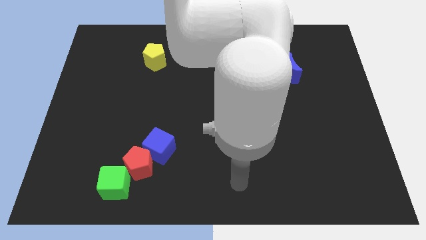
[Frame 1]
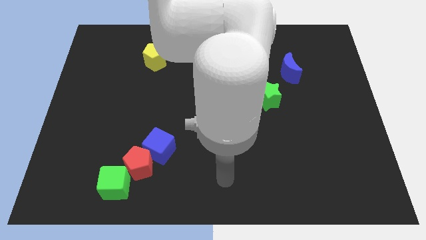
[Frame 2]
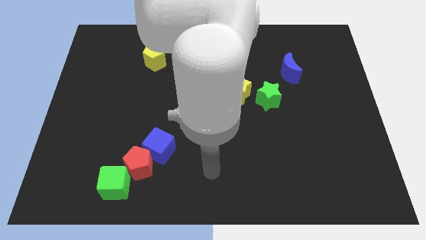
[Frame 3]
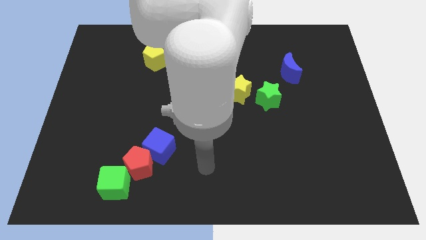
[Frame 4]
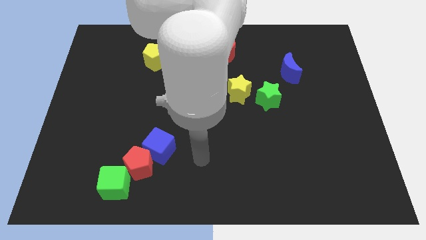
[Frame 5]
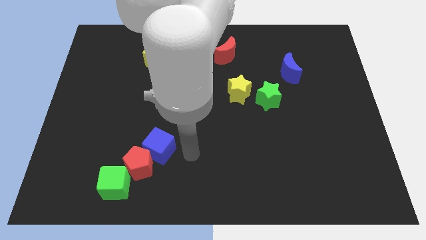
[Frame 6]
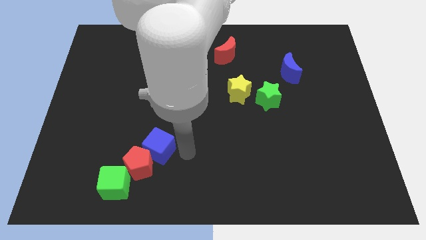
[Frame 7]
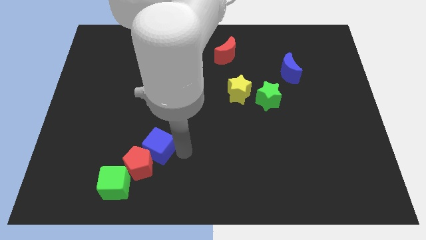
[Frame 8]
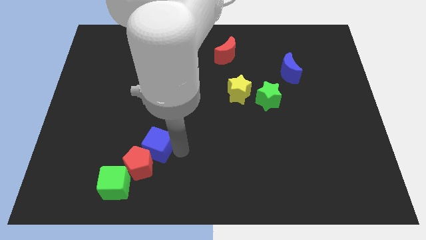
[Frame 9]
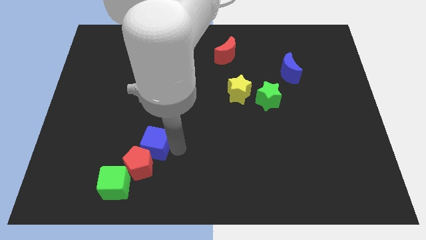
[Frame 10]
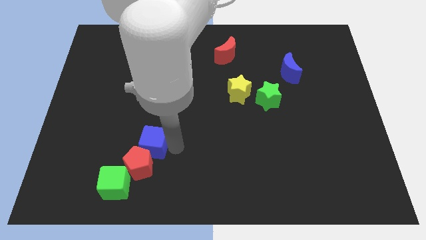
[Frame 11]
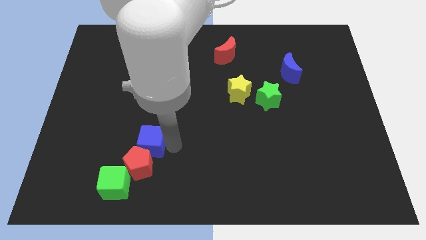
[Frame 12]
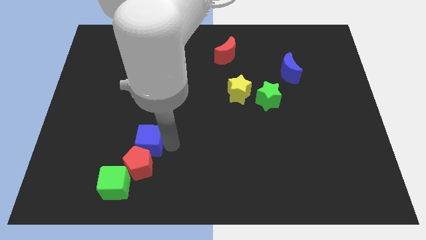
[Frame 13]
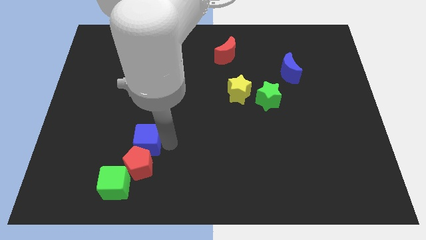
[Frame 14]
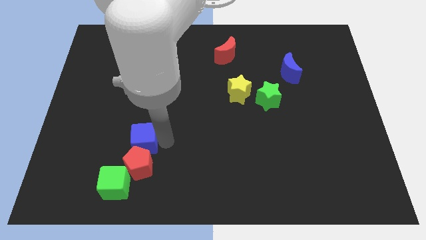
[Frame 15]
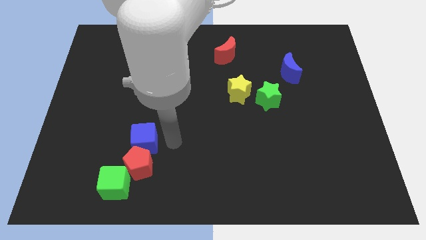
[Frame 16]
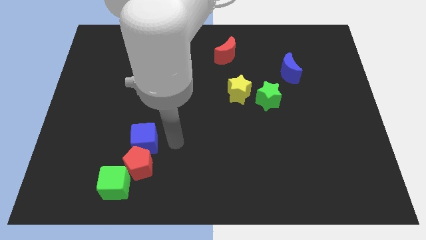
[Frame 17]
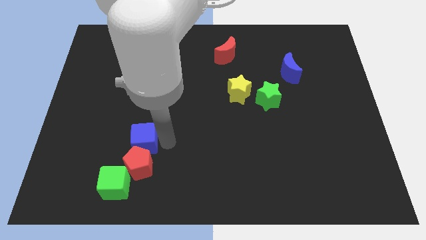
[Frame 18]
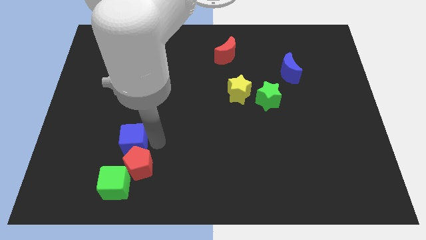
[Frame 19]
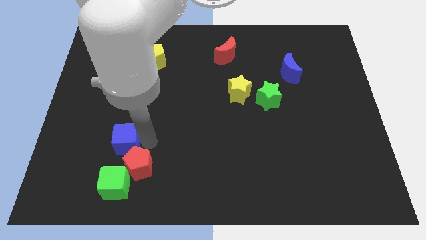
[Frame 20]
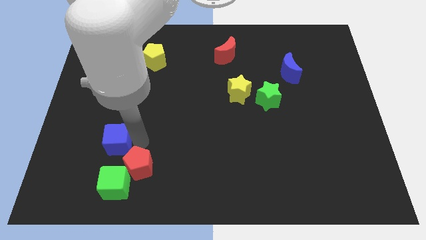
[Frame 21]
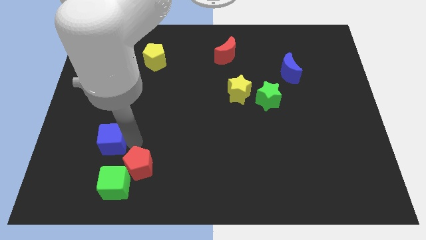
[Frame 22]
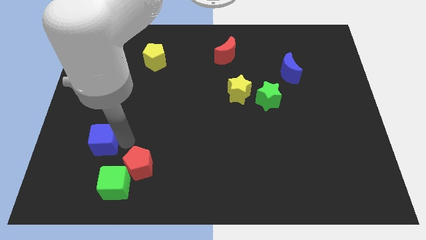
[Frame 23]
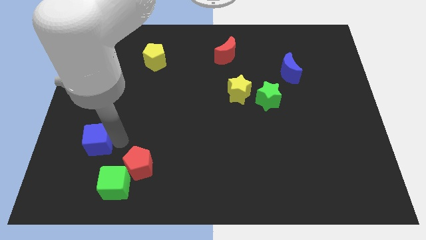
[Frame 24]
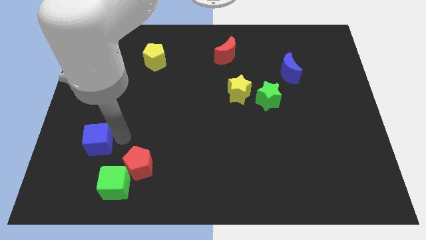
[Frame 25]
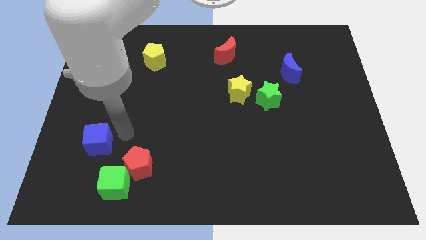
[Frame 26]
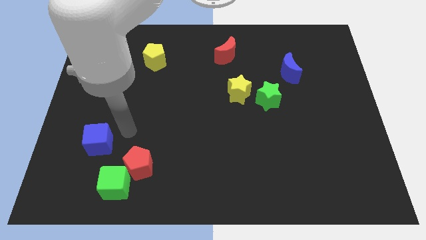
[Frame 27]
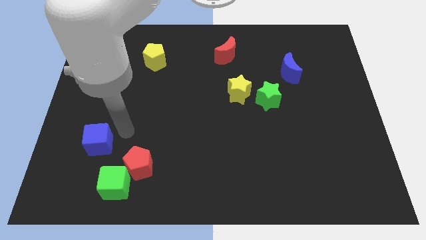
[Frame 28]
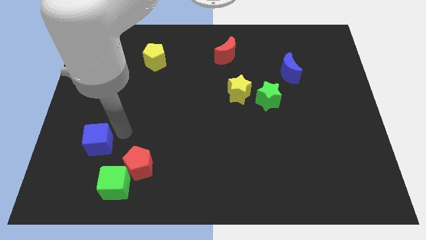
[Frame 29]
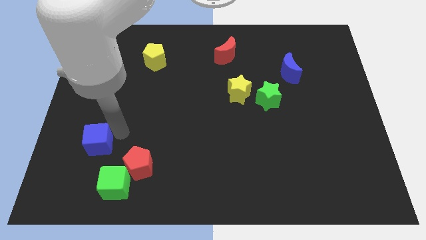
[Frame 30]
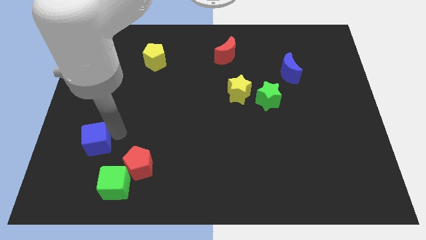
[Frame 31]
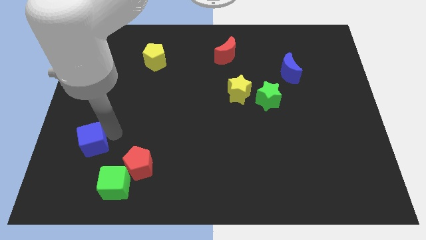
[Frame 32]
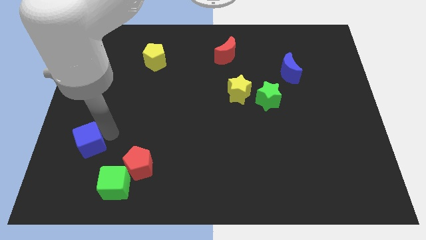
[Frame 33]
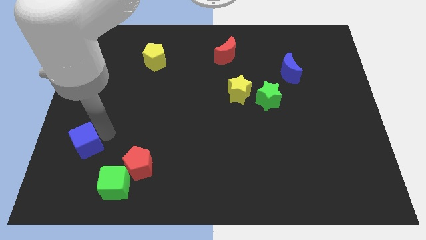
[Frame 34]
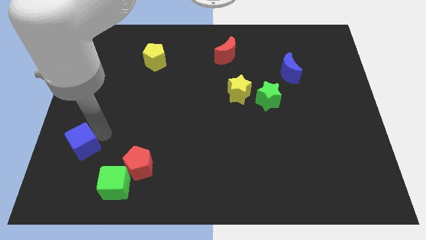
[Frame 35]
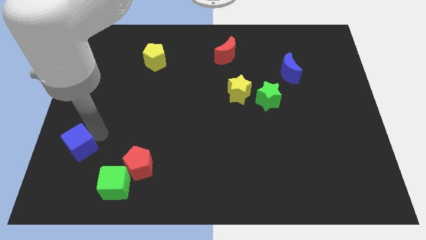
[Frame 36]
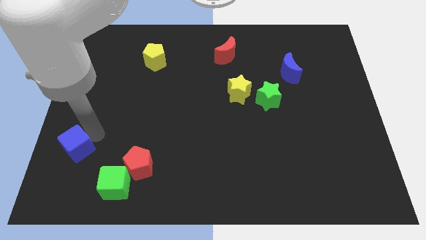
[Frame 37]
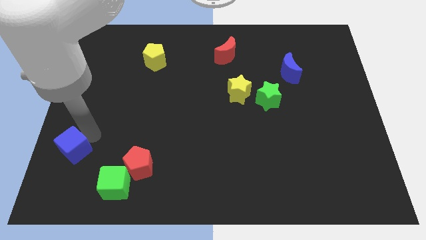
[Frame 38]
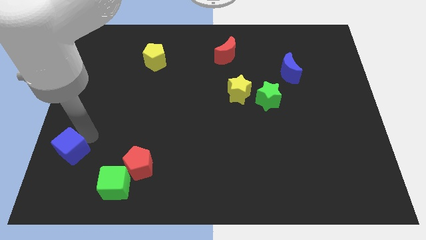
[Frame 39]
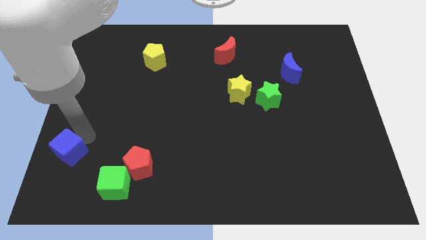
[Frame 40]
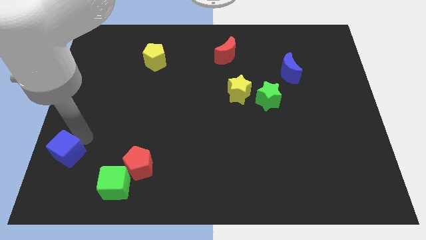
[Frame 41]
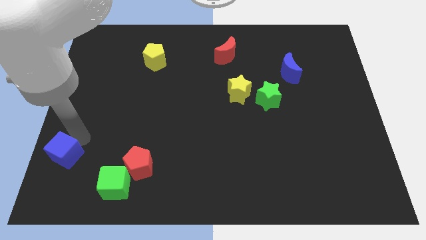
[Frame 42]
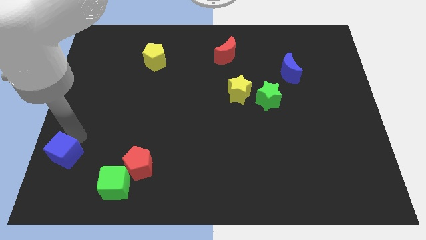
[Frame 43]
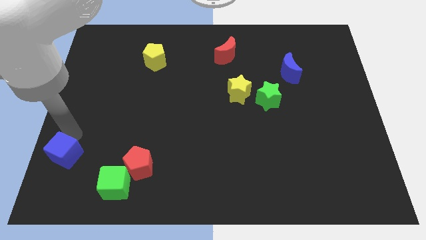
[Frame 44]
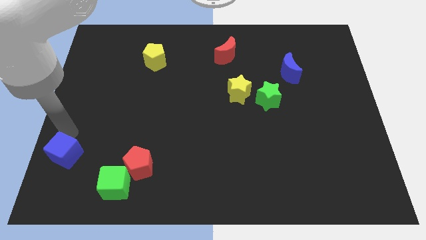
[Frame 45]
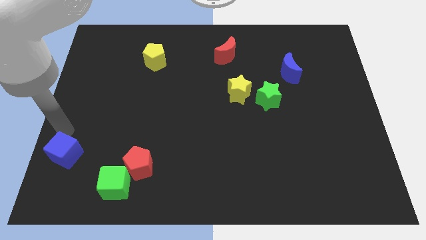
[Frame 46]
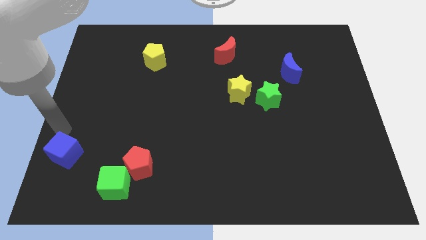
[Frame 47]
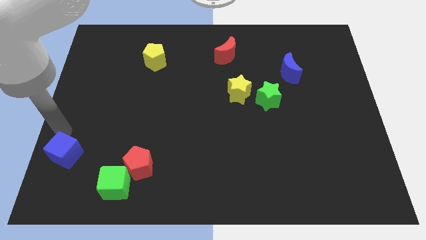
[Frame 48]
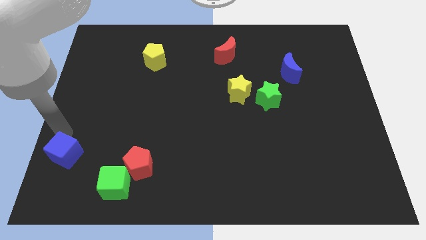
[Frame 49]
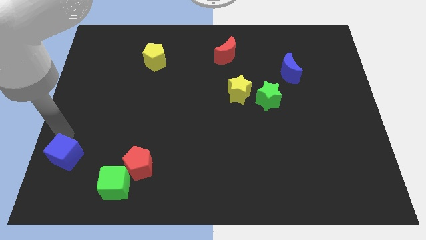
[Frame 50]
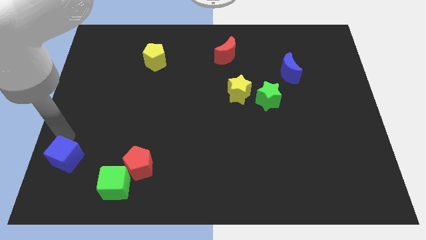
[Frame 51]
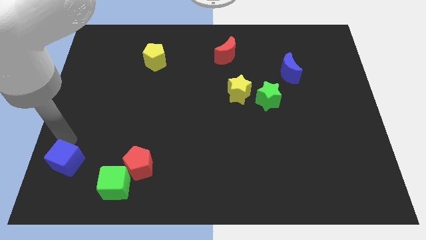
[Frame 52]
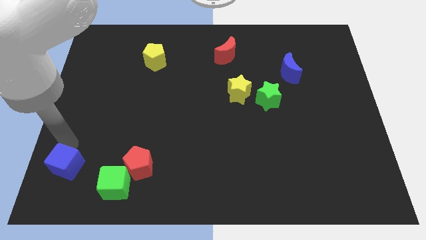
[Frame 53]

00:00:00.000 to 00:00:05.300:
move the blue cube to the bottom left
